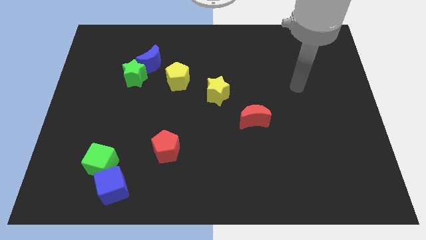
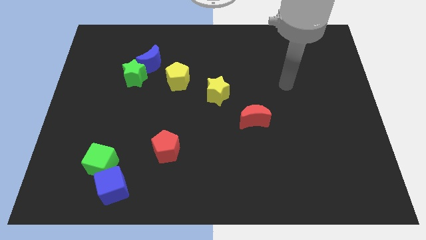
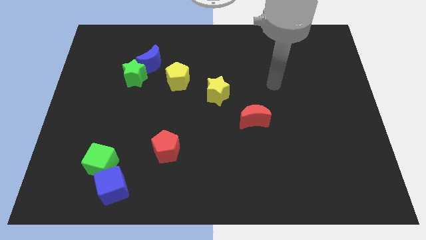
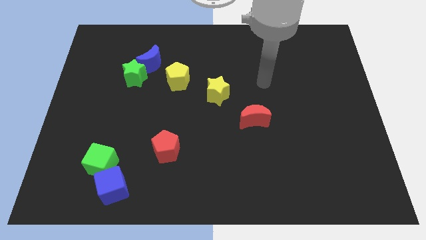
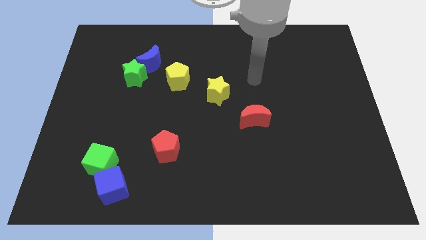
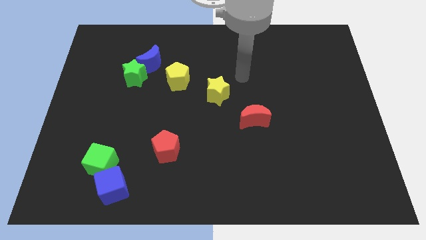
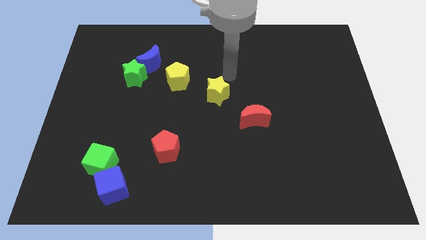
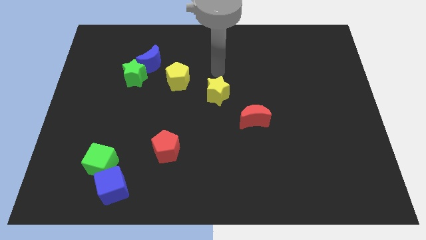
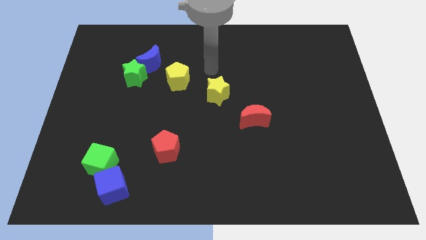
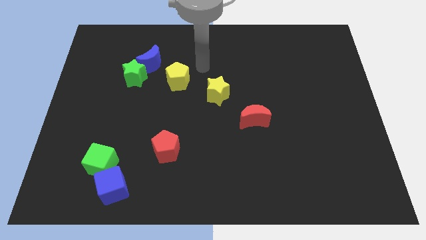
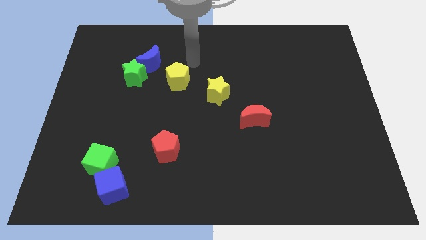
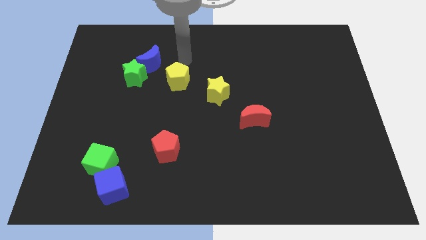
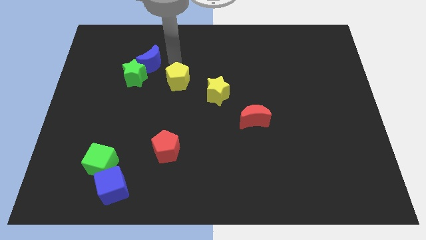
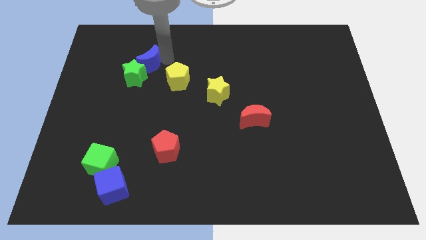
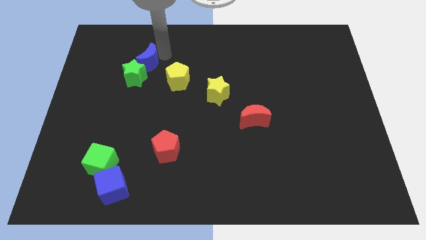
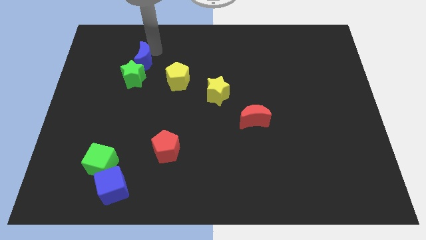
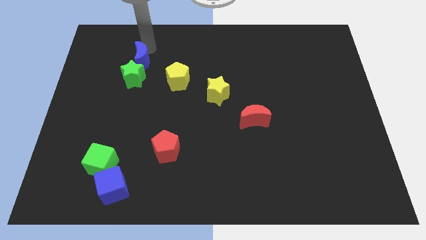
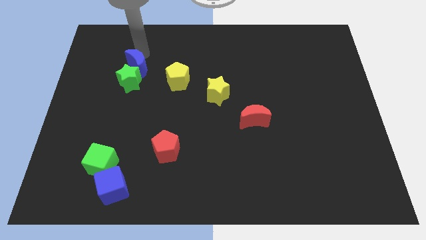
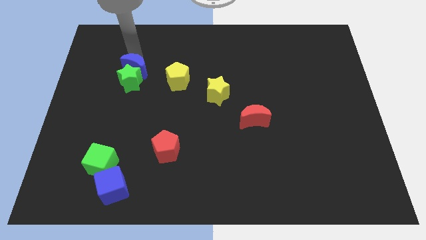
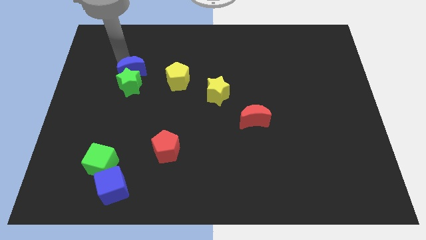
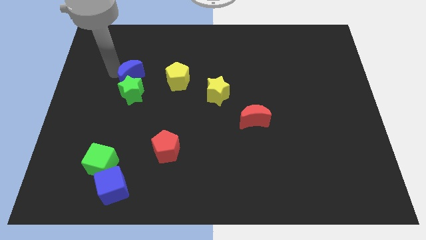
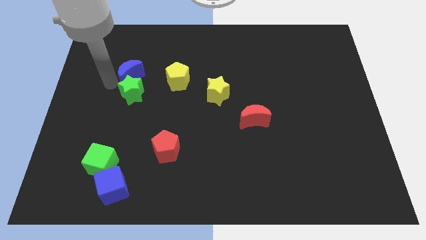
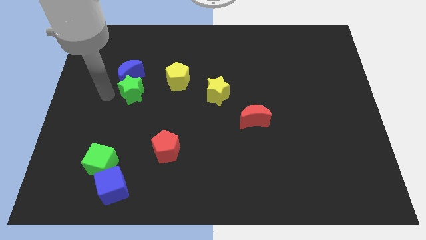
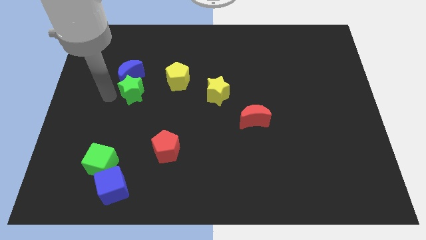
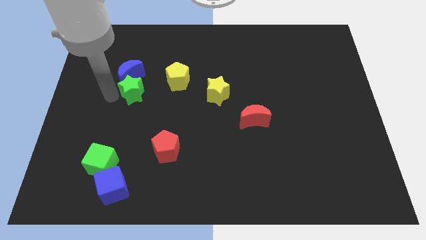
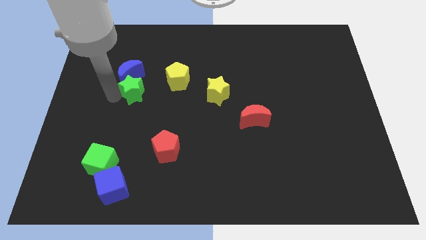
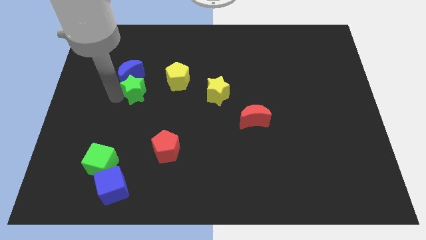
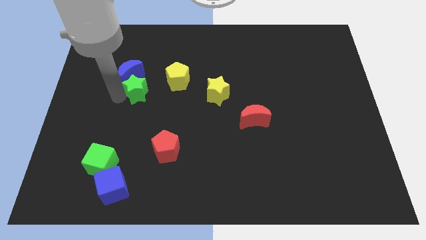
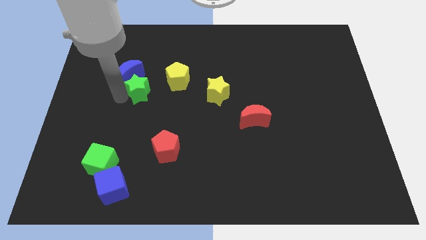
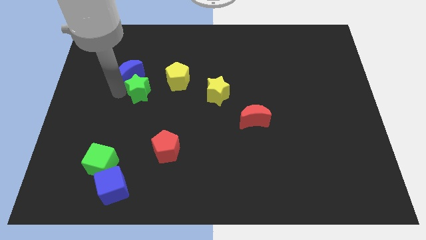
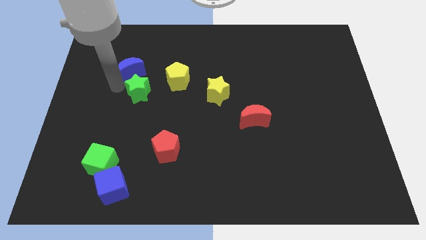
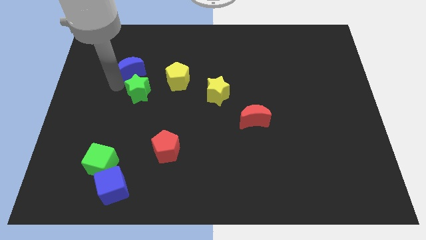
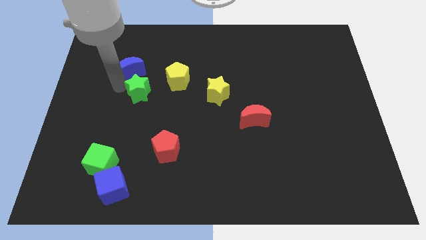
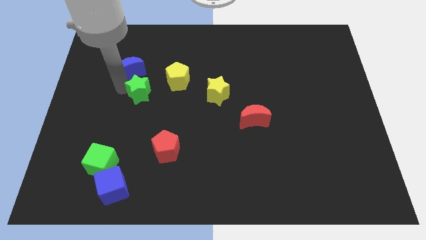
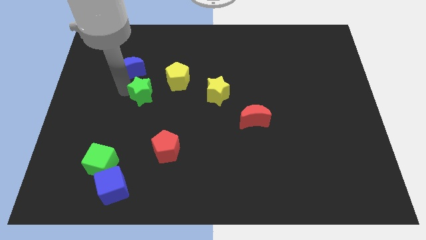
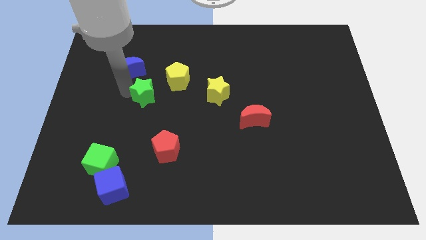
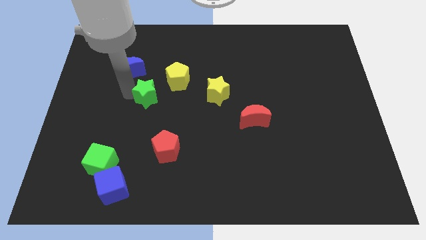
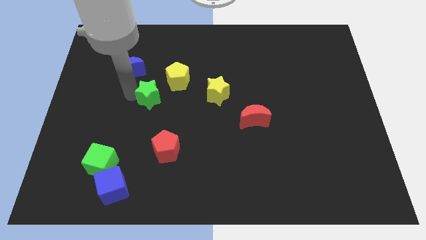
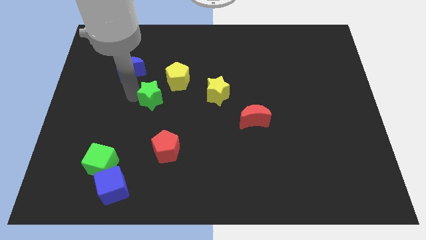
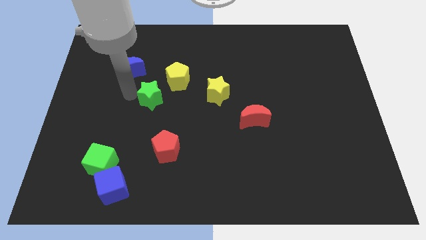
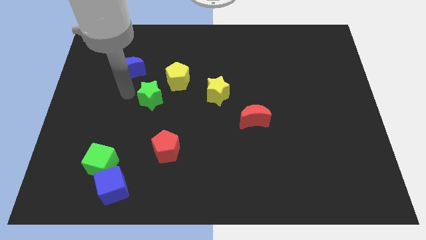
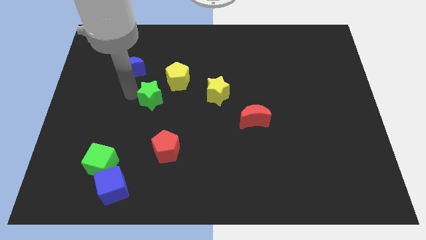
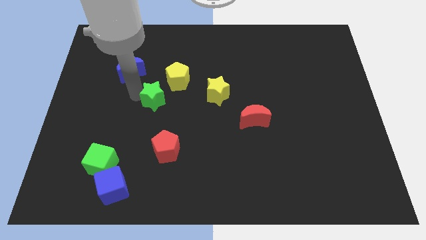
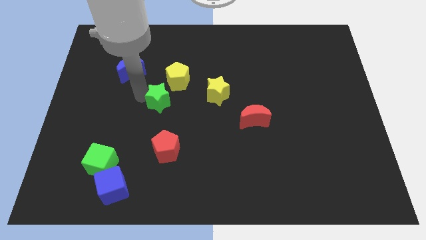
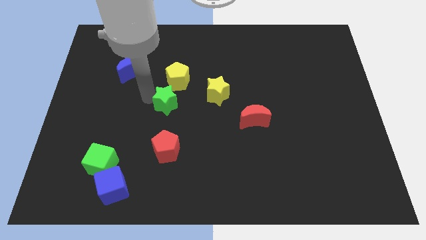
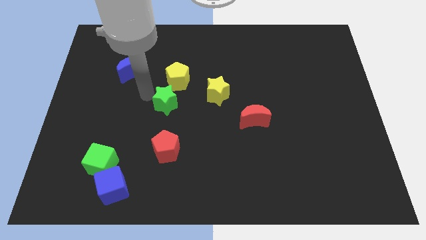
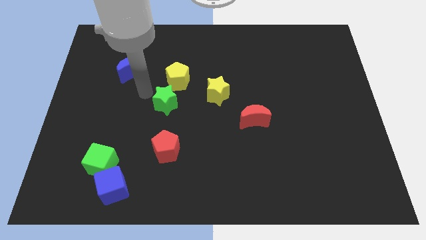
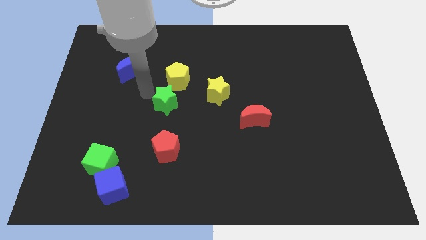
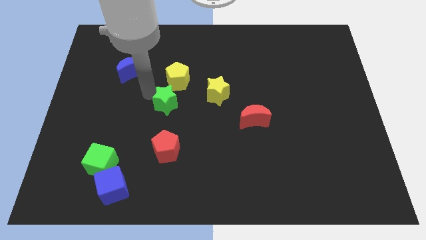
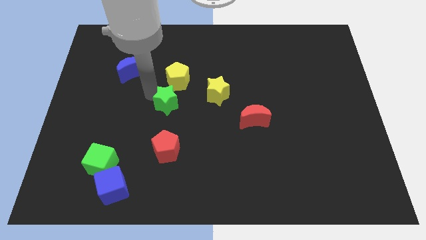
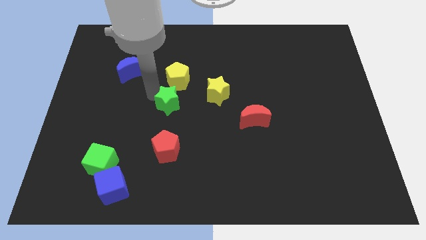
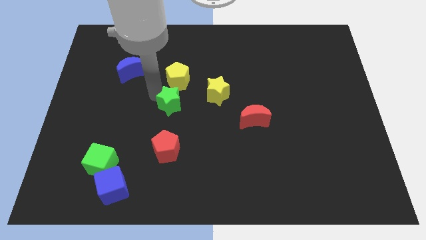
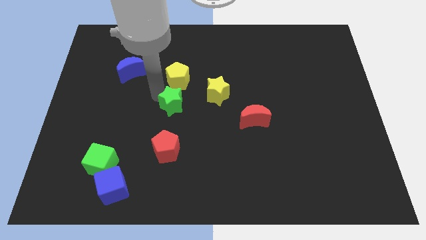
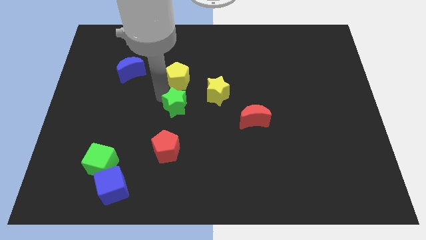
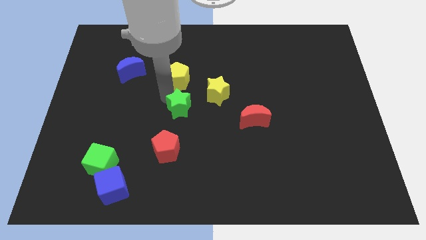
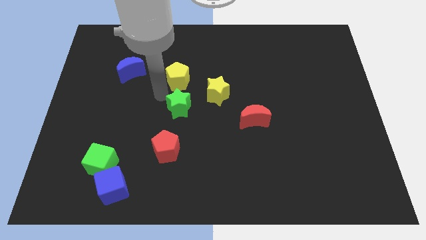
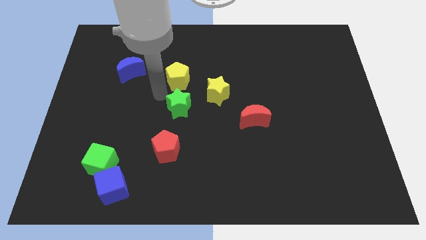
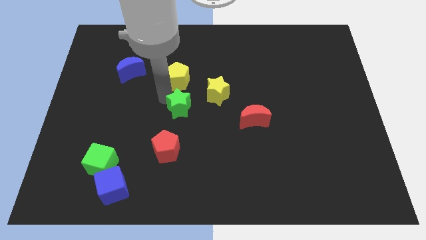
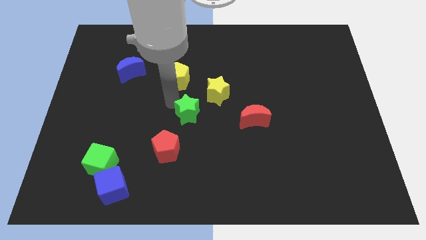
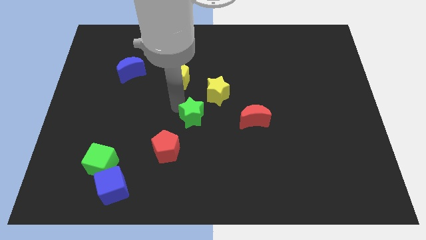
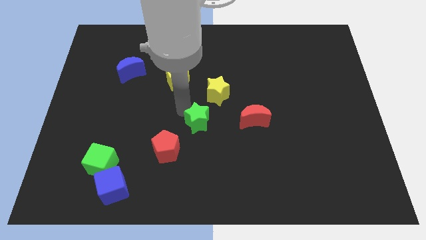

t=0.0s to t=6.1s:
move the green star downwards and right diagonally

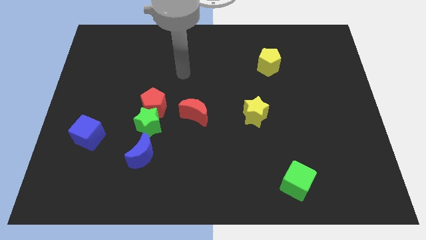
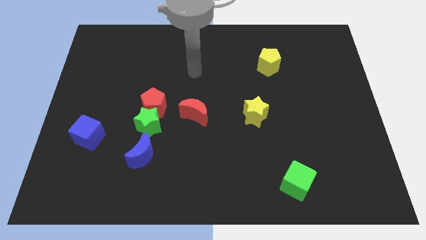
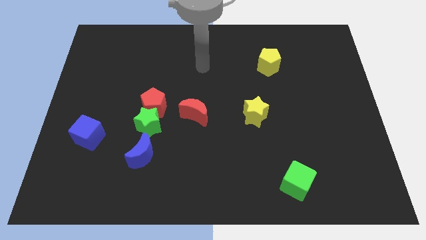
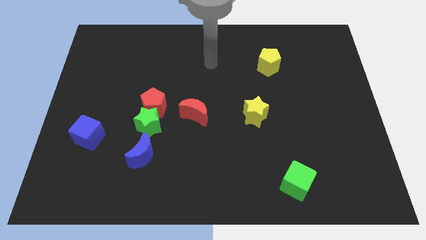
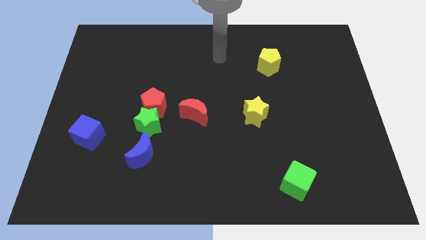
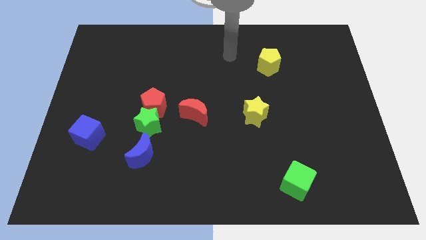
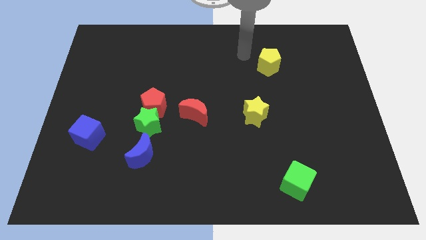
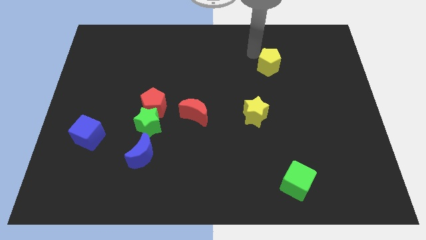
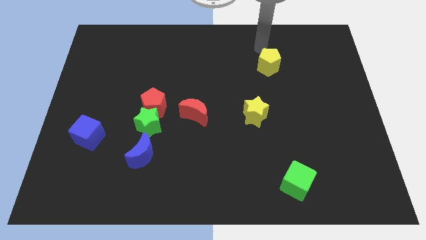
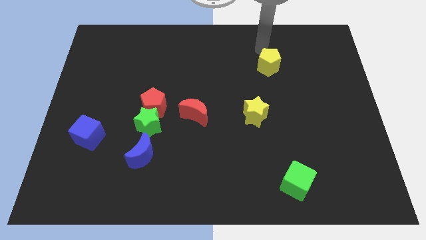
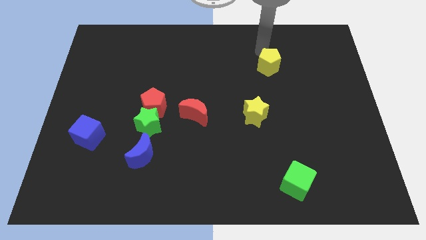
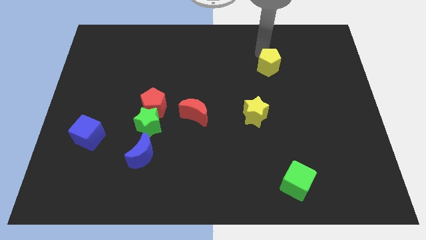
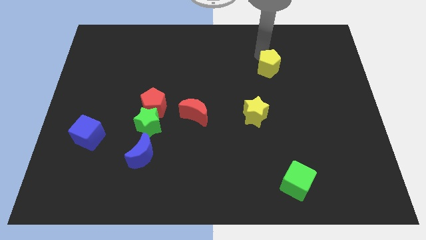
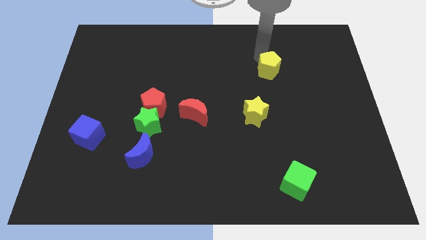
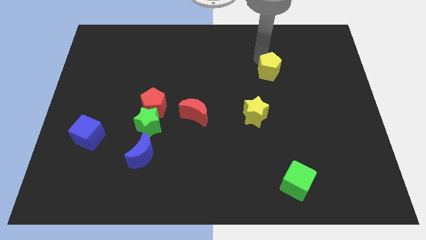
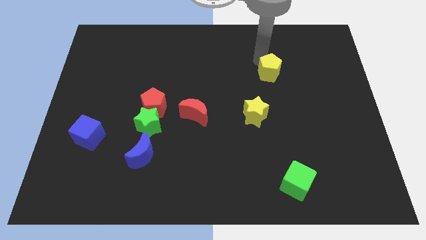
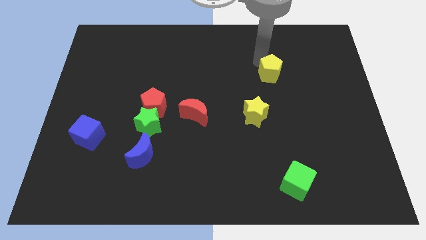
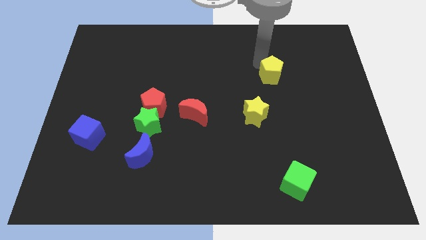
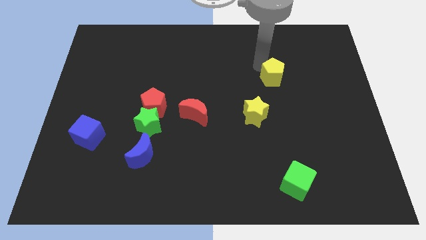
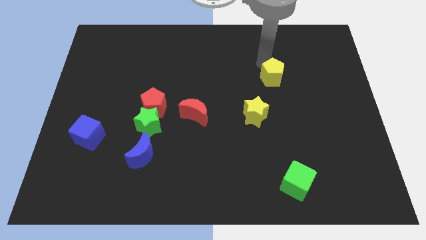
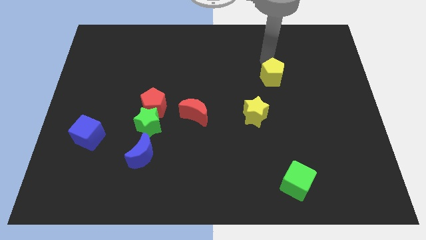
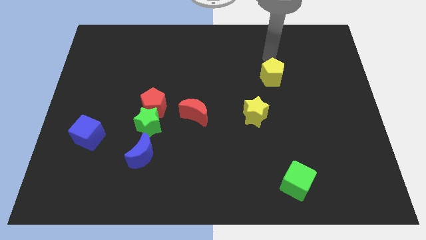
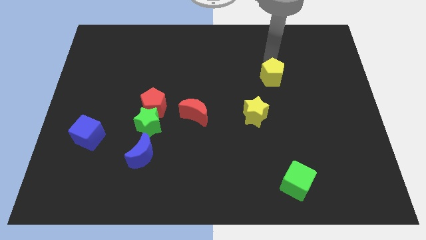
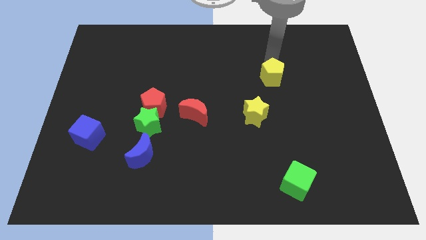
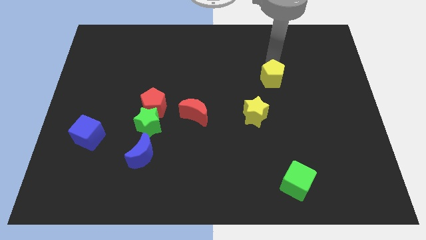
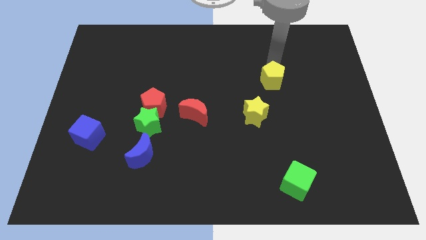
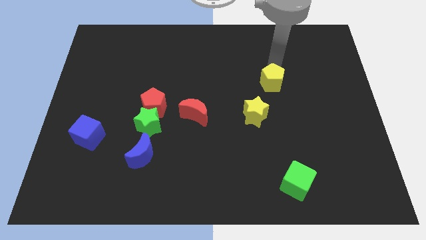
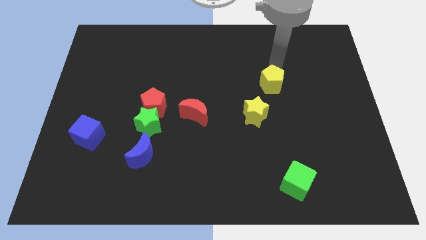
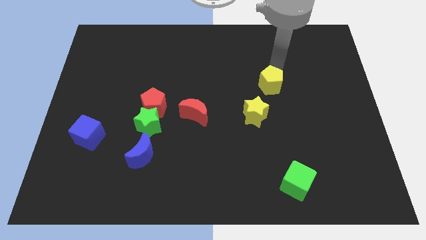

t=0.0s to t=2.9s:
slightly move the yellow pentagon downwards
